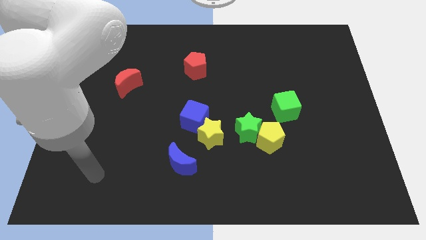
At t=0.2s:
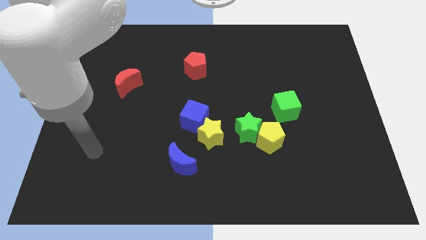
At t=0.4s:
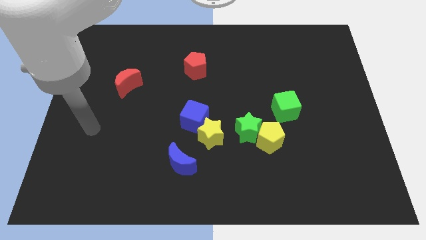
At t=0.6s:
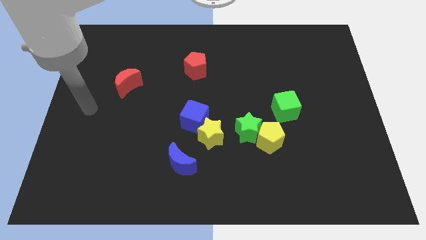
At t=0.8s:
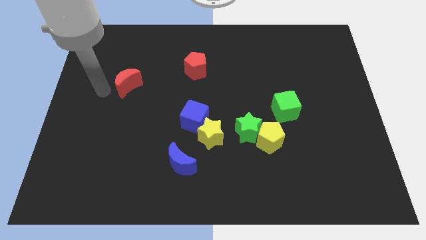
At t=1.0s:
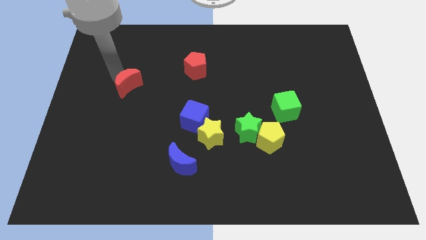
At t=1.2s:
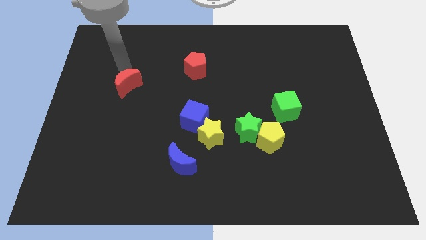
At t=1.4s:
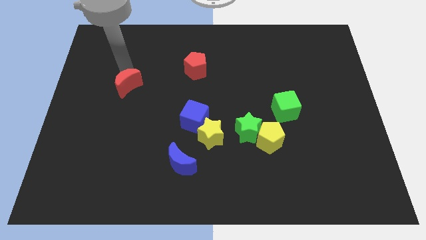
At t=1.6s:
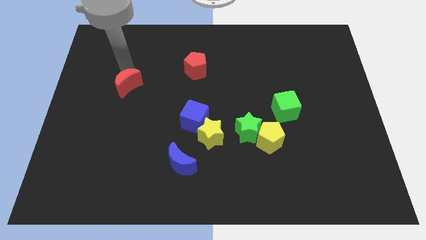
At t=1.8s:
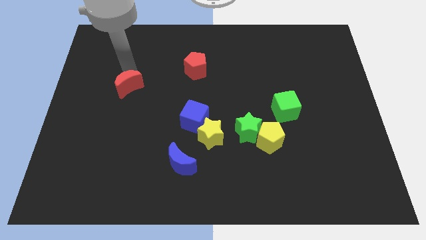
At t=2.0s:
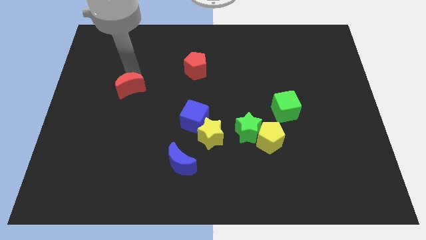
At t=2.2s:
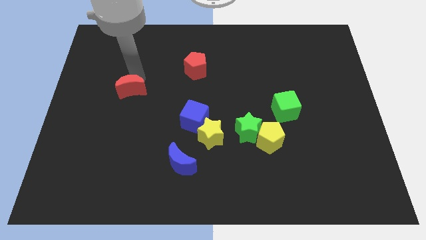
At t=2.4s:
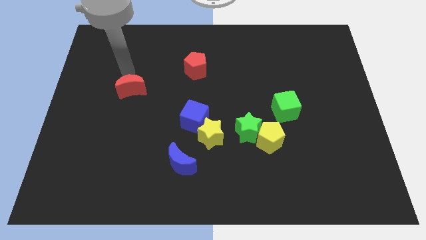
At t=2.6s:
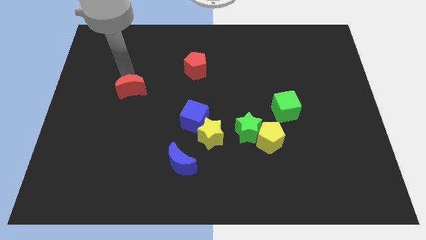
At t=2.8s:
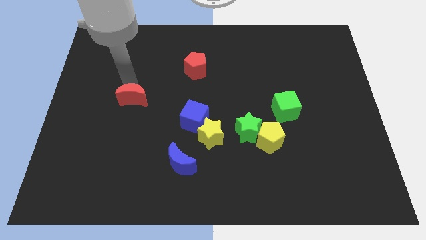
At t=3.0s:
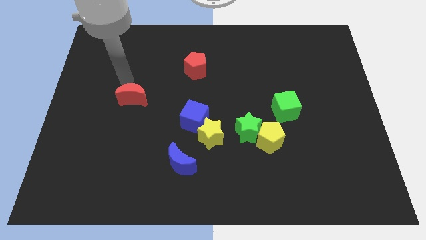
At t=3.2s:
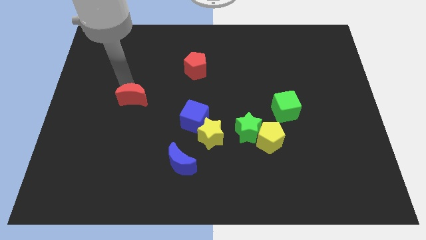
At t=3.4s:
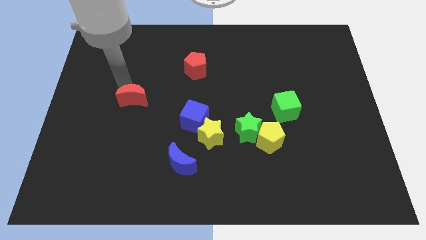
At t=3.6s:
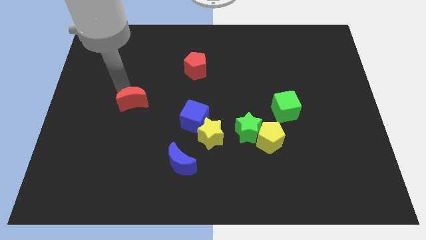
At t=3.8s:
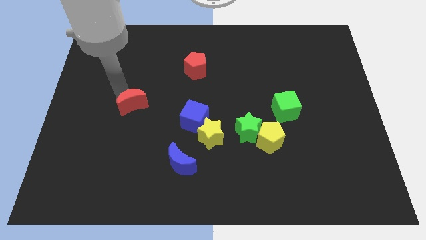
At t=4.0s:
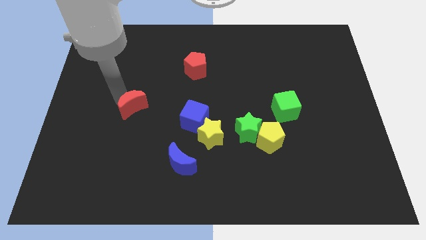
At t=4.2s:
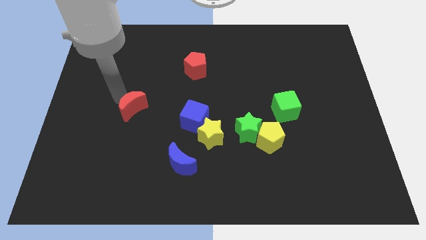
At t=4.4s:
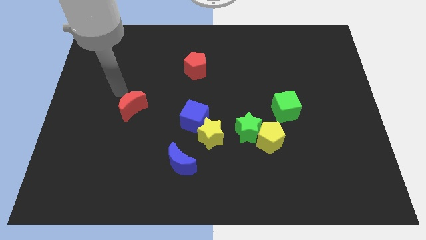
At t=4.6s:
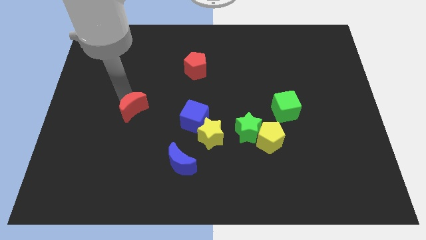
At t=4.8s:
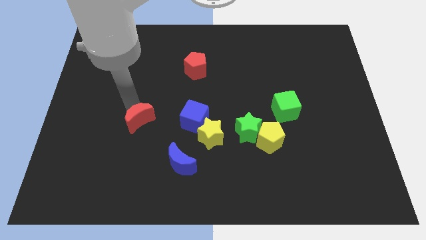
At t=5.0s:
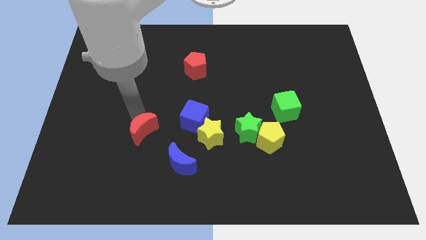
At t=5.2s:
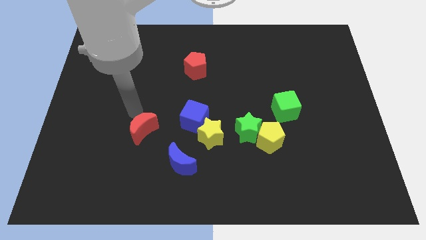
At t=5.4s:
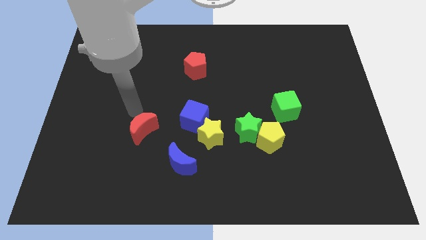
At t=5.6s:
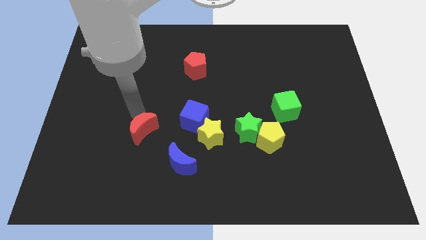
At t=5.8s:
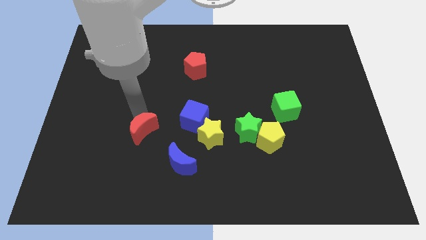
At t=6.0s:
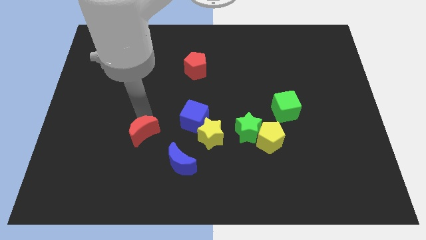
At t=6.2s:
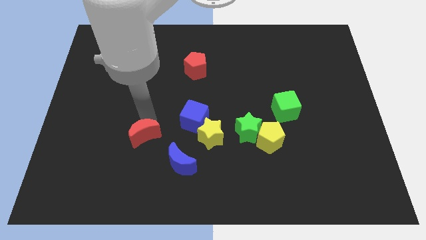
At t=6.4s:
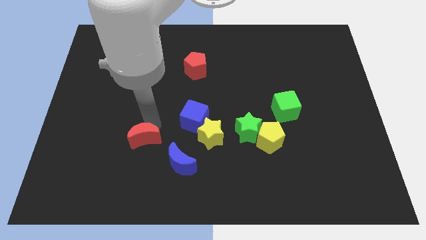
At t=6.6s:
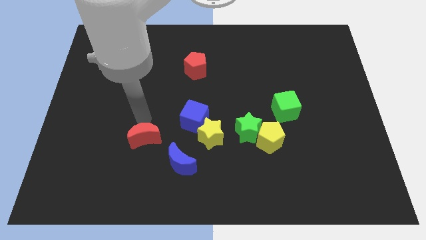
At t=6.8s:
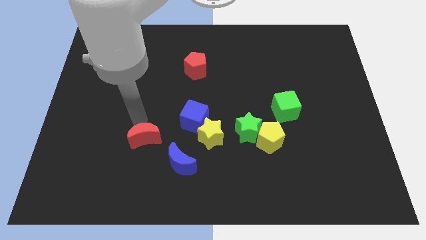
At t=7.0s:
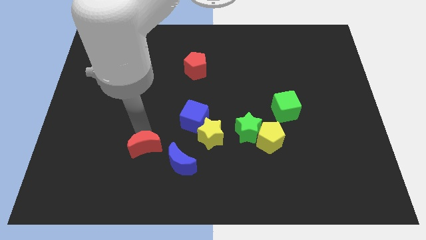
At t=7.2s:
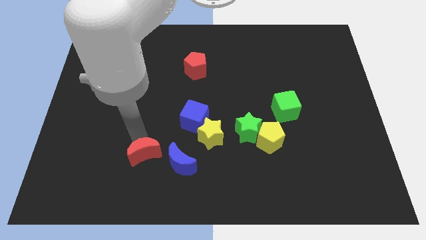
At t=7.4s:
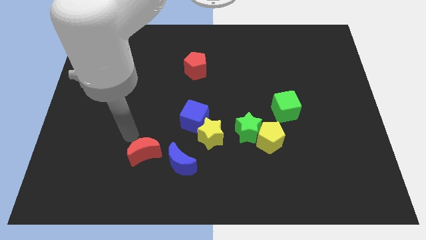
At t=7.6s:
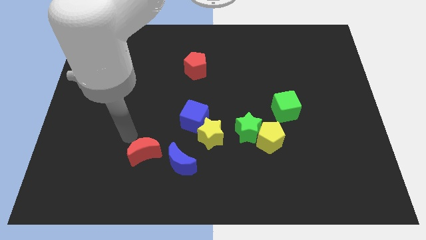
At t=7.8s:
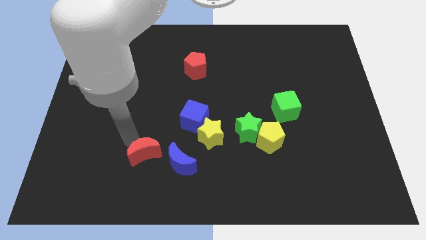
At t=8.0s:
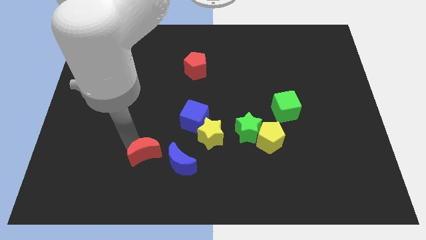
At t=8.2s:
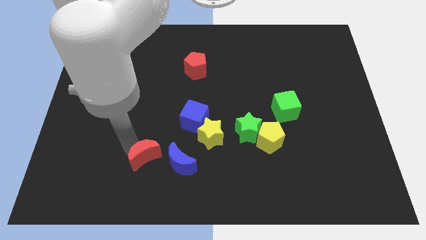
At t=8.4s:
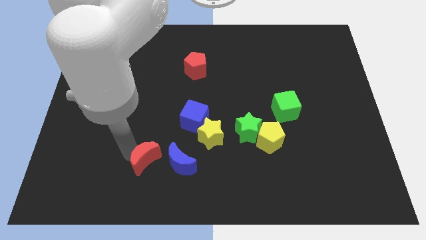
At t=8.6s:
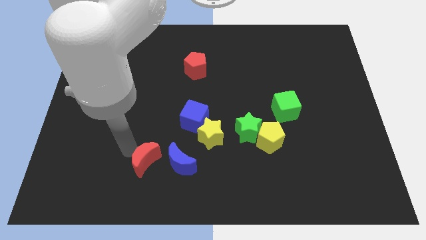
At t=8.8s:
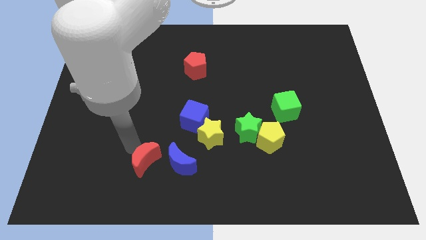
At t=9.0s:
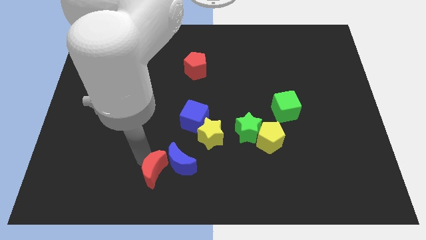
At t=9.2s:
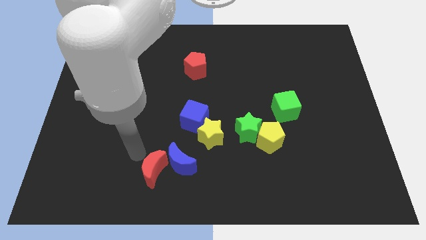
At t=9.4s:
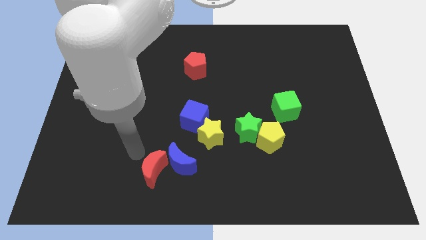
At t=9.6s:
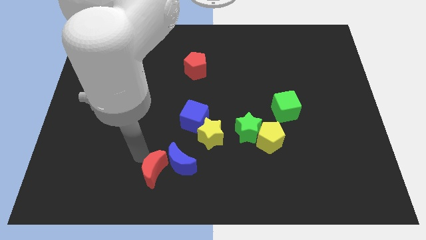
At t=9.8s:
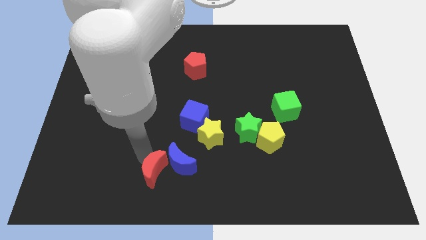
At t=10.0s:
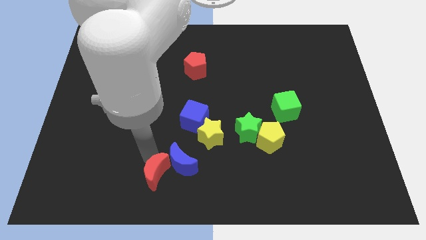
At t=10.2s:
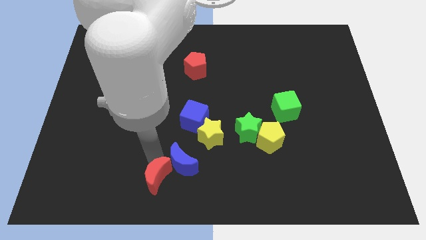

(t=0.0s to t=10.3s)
put the red moon to the bottom
